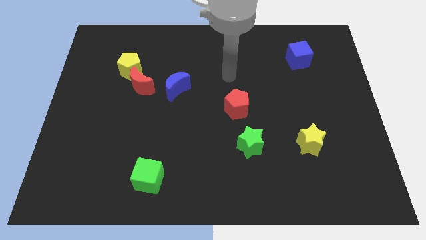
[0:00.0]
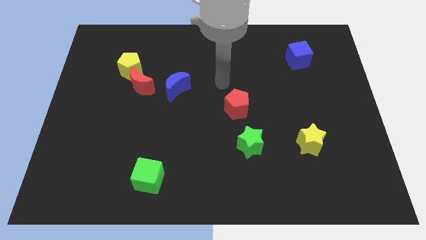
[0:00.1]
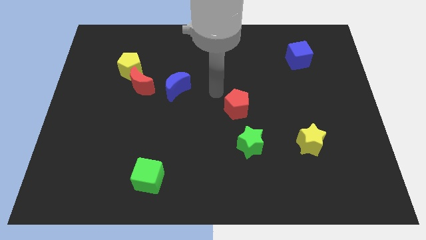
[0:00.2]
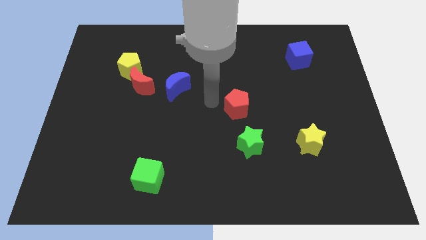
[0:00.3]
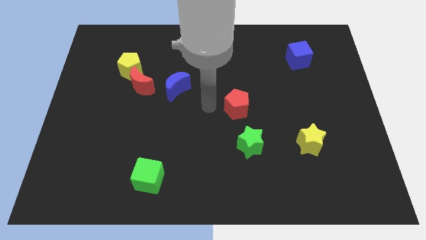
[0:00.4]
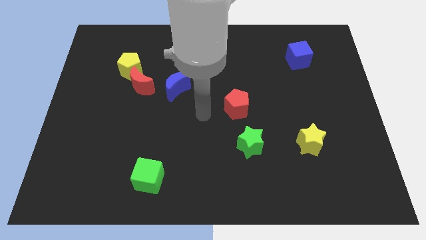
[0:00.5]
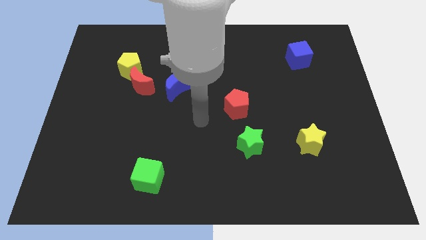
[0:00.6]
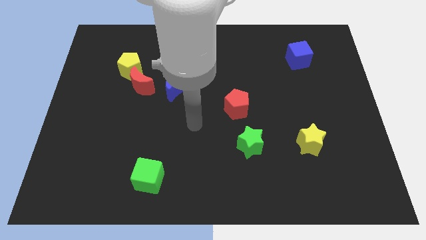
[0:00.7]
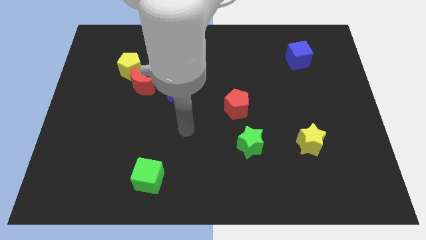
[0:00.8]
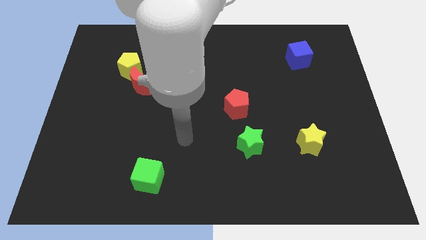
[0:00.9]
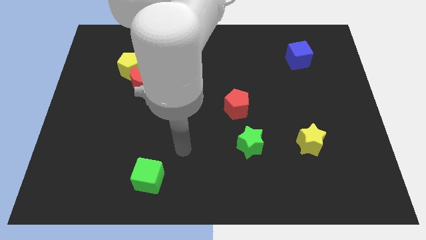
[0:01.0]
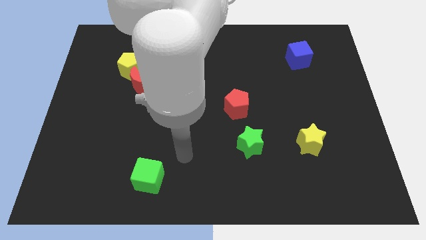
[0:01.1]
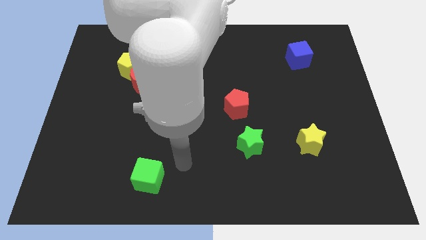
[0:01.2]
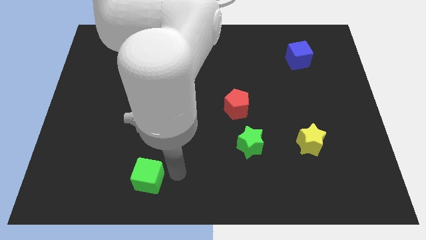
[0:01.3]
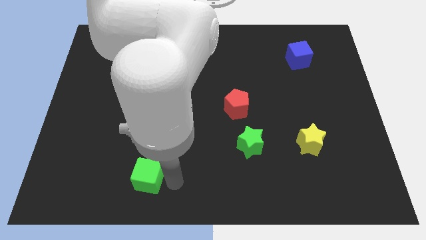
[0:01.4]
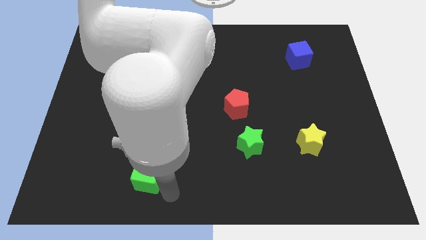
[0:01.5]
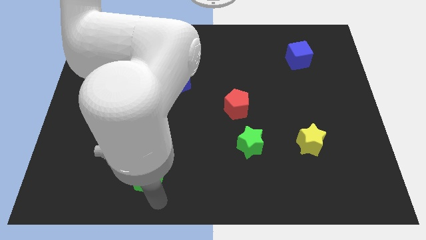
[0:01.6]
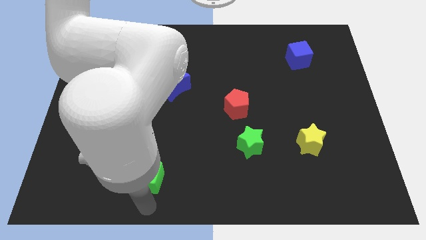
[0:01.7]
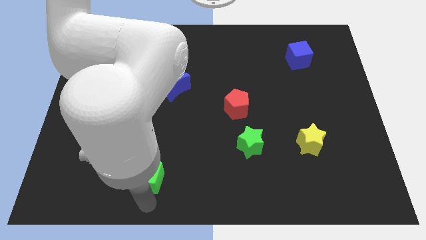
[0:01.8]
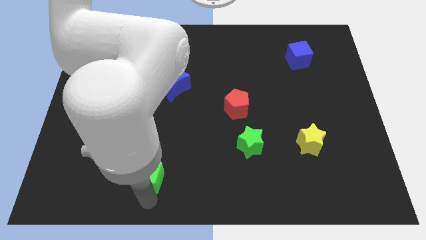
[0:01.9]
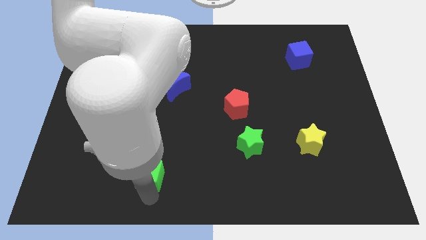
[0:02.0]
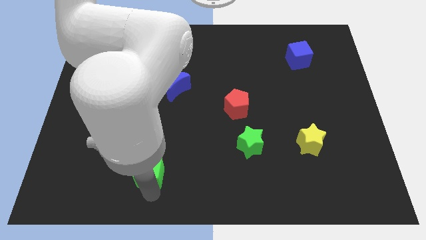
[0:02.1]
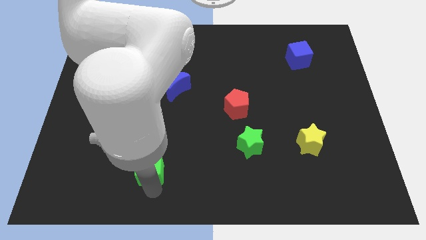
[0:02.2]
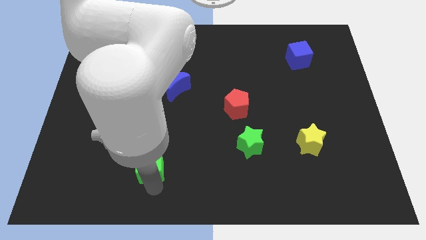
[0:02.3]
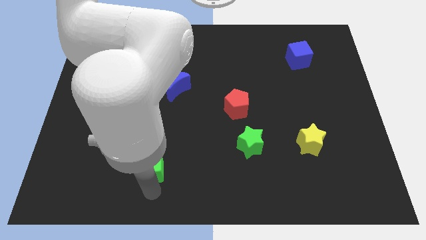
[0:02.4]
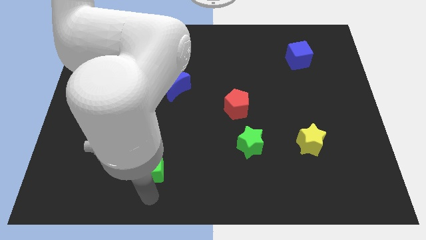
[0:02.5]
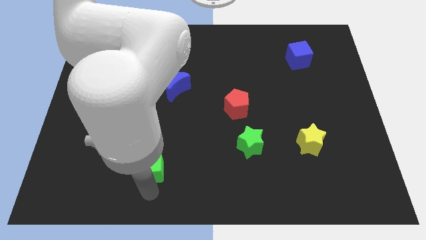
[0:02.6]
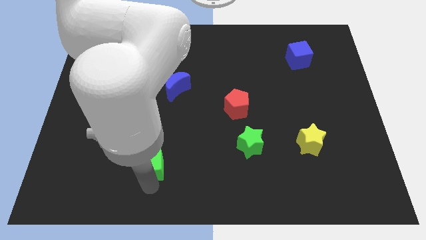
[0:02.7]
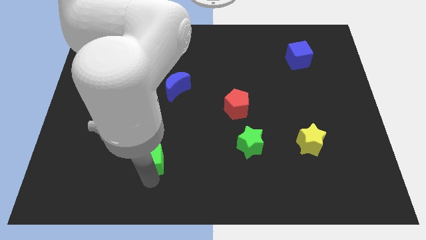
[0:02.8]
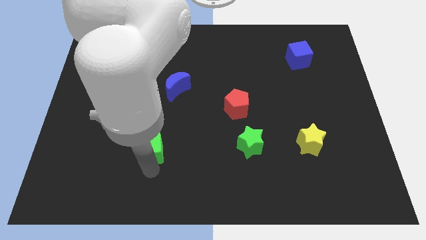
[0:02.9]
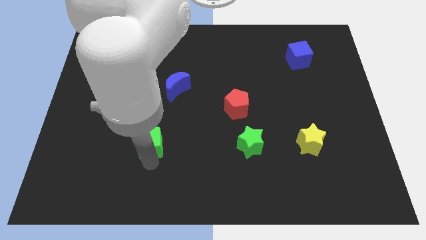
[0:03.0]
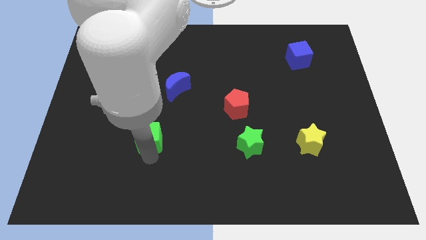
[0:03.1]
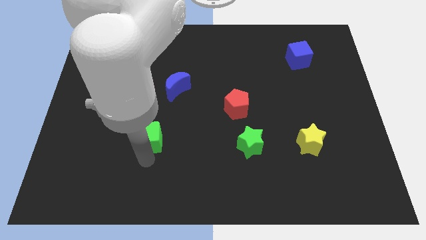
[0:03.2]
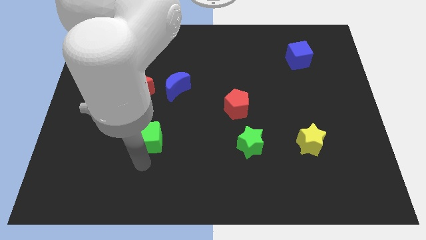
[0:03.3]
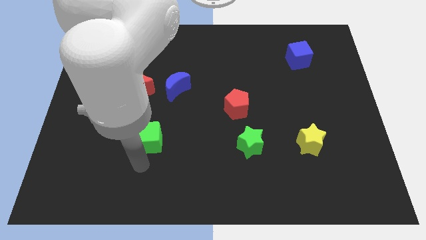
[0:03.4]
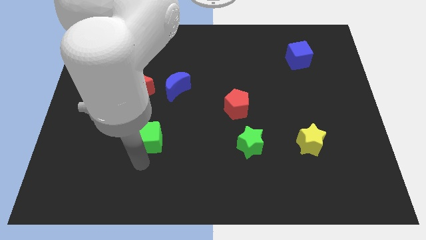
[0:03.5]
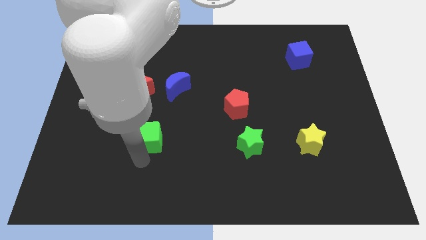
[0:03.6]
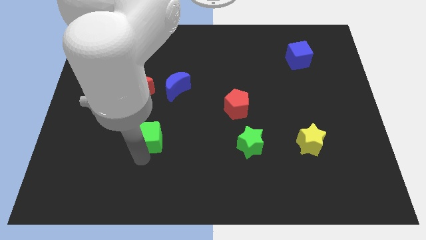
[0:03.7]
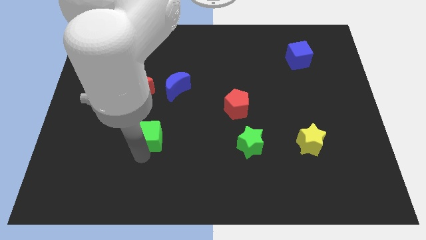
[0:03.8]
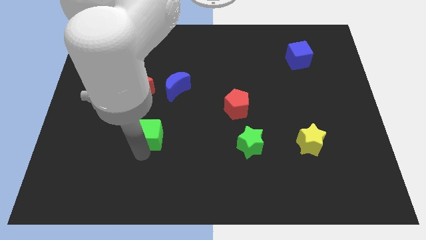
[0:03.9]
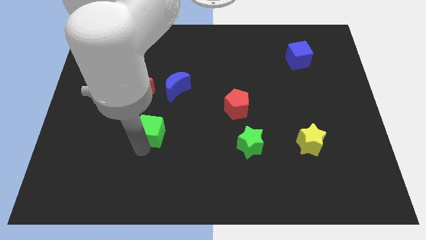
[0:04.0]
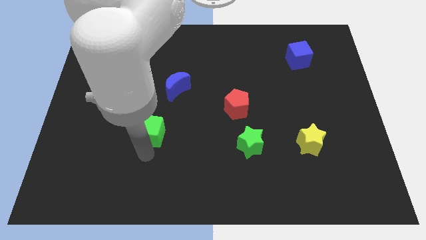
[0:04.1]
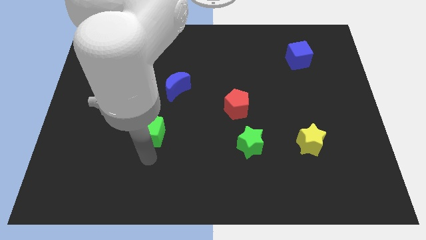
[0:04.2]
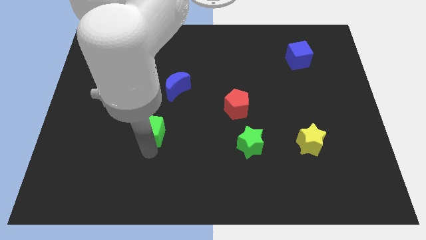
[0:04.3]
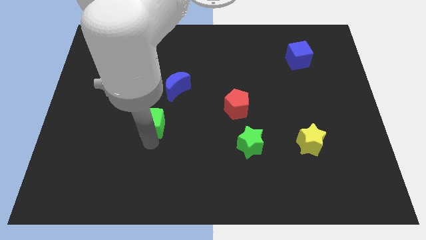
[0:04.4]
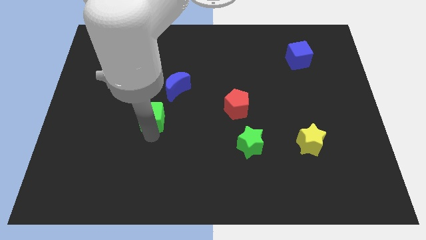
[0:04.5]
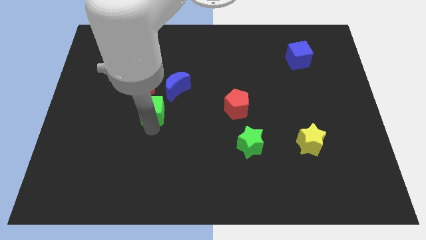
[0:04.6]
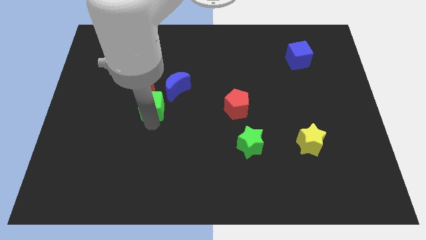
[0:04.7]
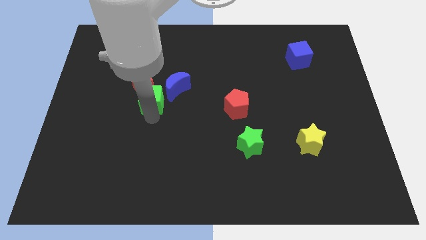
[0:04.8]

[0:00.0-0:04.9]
move the green cube upwards

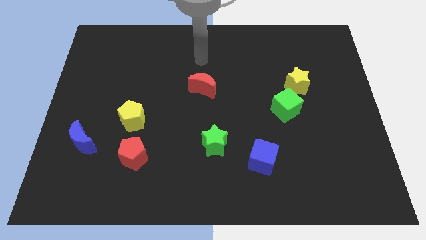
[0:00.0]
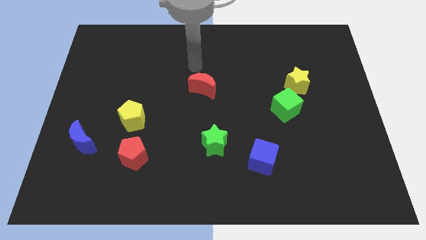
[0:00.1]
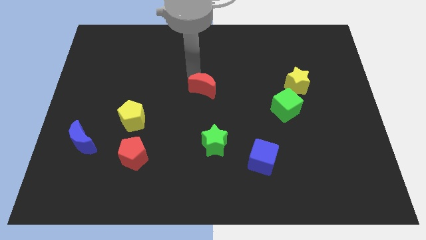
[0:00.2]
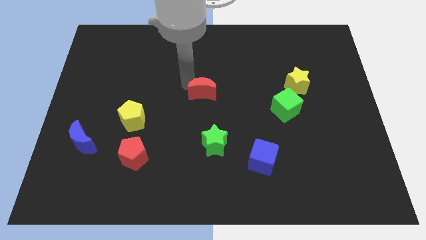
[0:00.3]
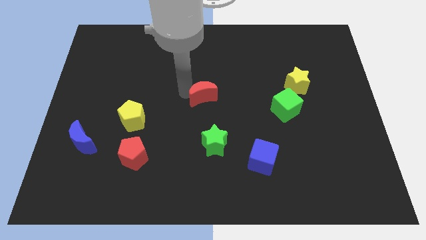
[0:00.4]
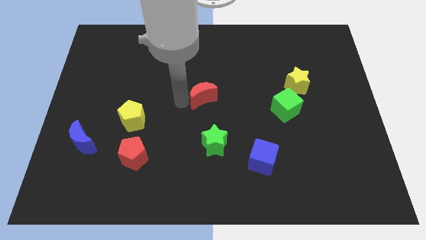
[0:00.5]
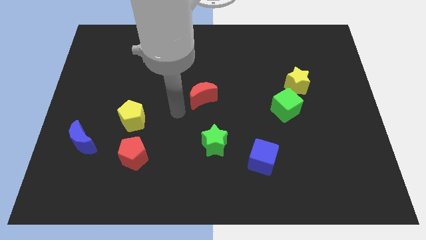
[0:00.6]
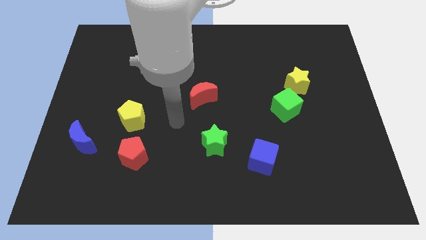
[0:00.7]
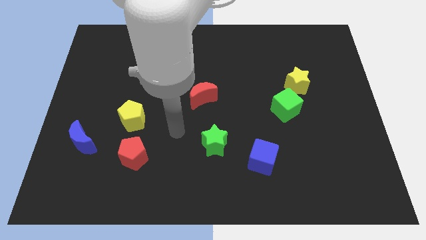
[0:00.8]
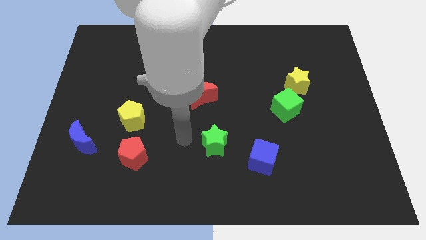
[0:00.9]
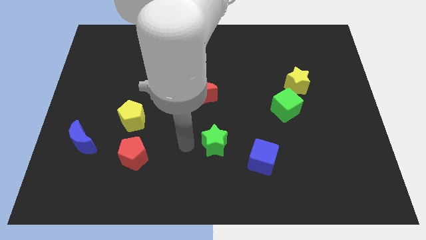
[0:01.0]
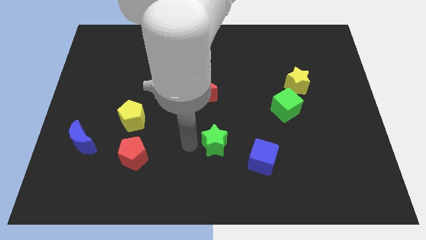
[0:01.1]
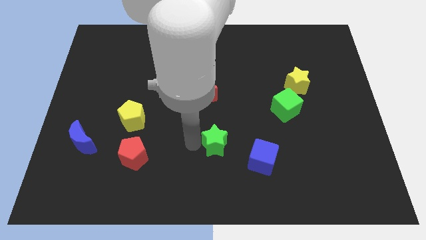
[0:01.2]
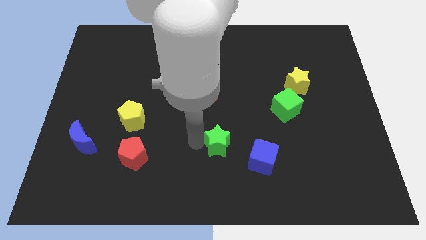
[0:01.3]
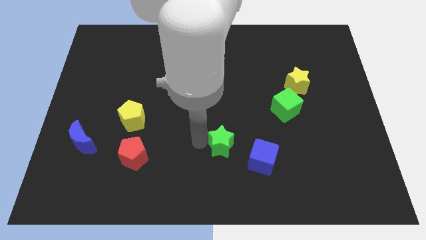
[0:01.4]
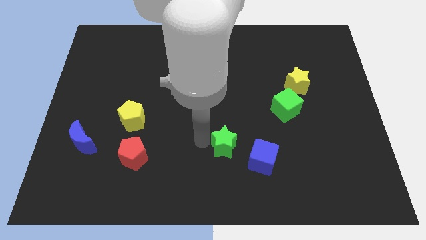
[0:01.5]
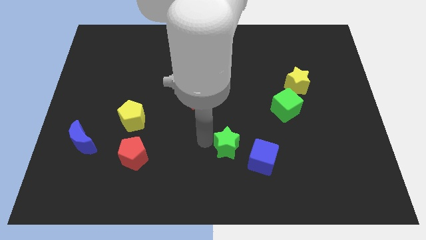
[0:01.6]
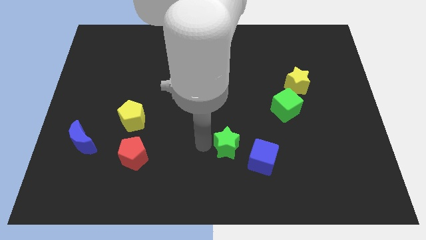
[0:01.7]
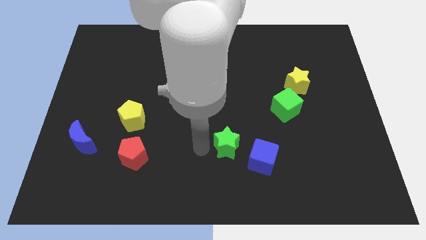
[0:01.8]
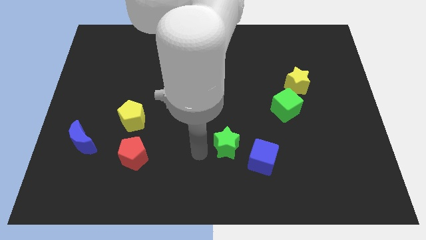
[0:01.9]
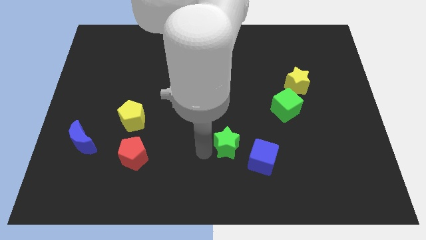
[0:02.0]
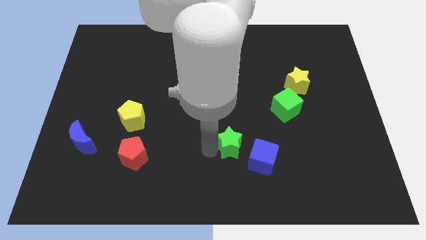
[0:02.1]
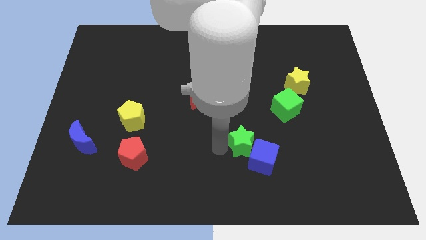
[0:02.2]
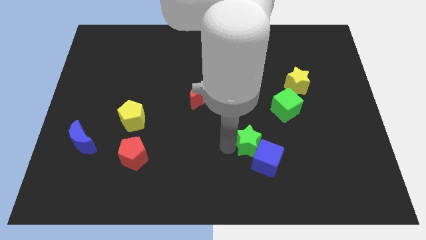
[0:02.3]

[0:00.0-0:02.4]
push the green star to the right a little bit

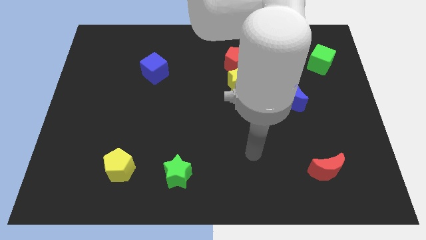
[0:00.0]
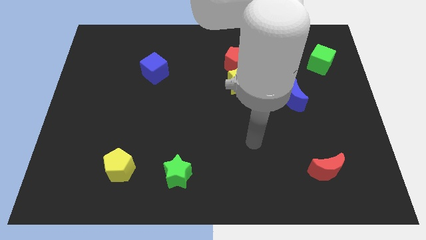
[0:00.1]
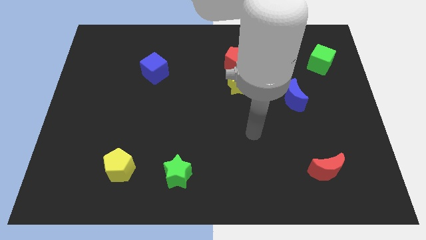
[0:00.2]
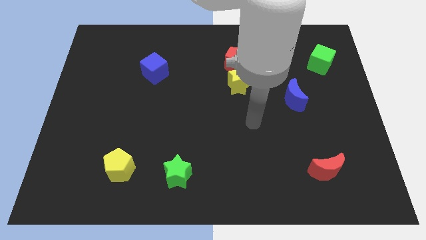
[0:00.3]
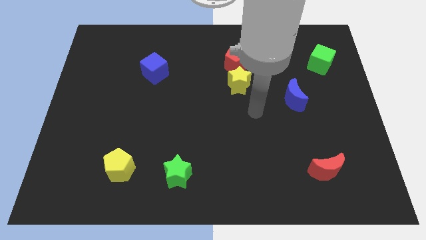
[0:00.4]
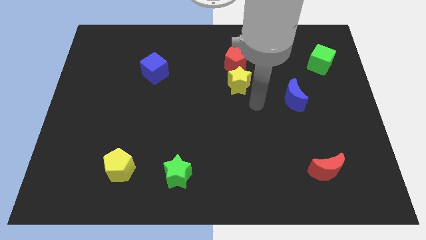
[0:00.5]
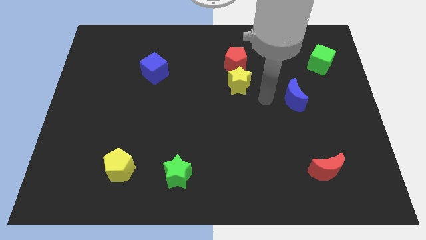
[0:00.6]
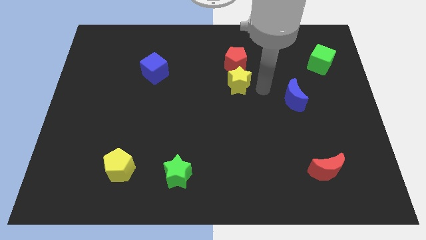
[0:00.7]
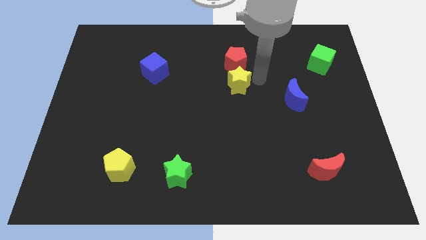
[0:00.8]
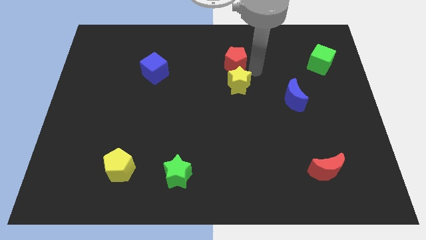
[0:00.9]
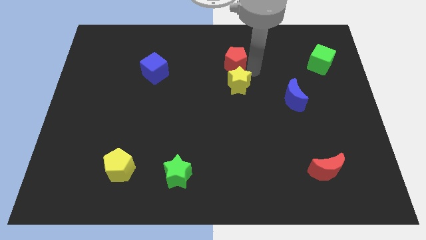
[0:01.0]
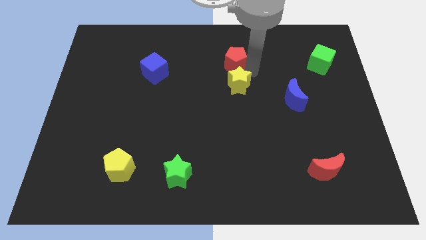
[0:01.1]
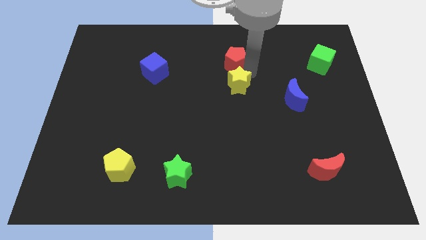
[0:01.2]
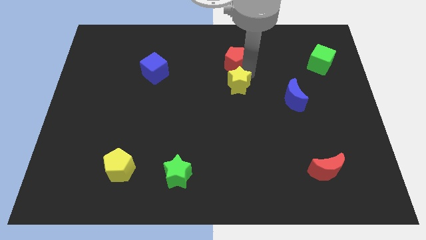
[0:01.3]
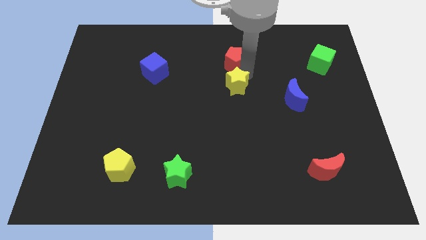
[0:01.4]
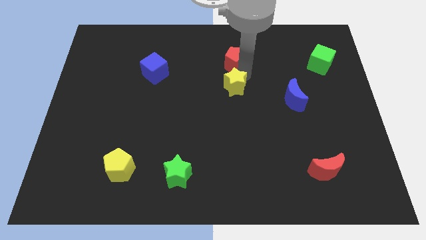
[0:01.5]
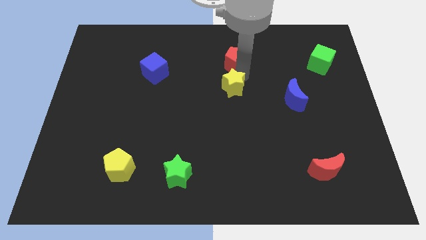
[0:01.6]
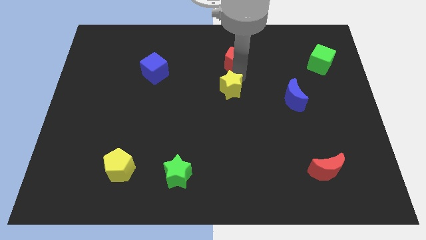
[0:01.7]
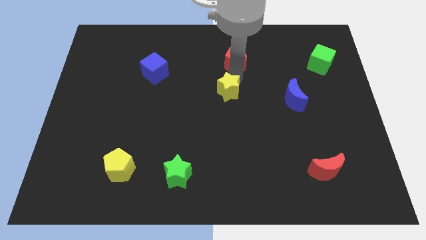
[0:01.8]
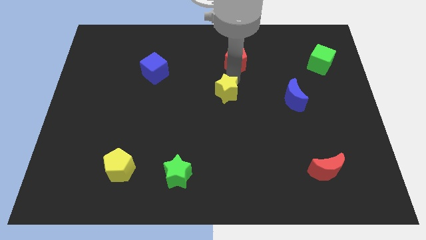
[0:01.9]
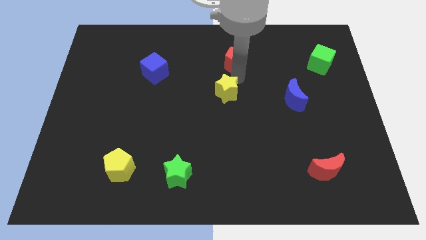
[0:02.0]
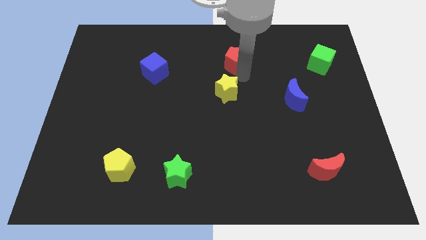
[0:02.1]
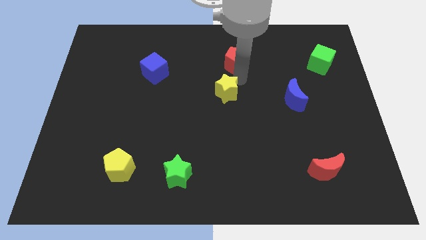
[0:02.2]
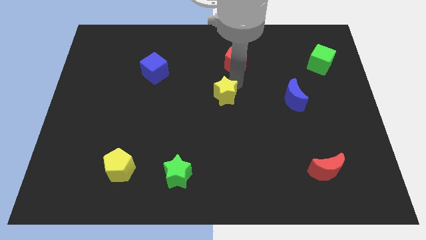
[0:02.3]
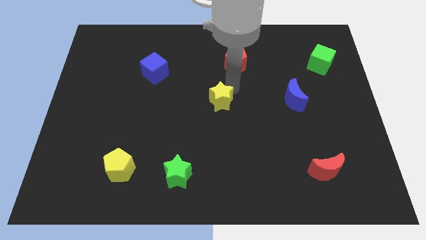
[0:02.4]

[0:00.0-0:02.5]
slightly move the yellow star down and to the left diagonally
